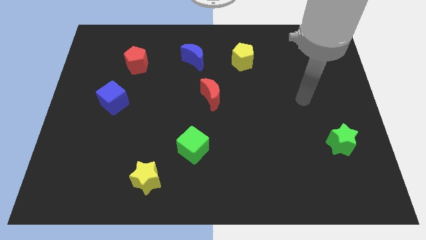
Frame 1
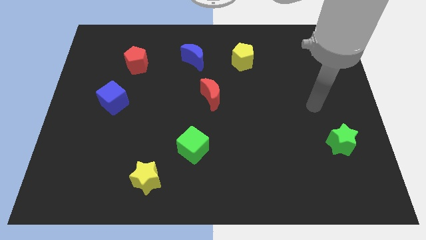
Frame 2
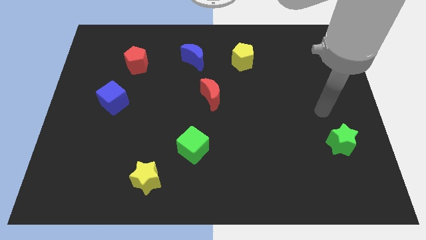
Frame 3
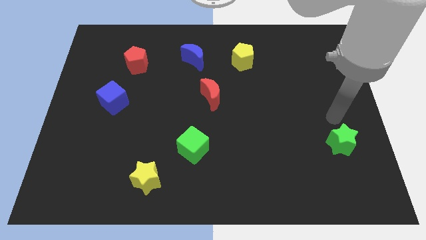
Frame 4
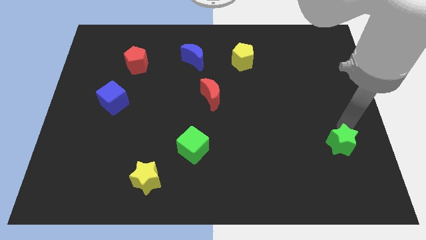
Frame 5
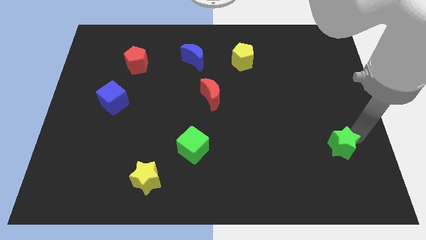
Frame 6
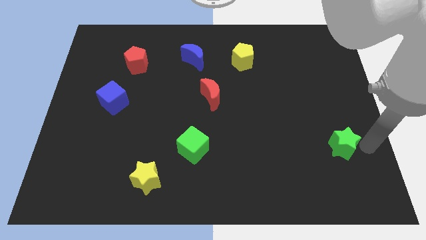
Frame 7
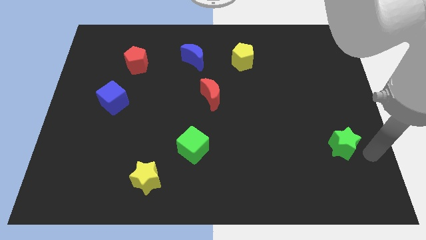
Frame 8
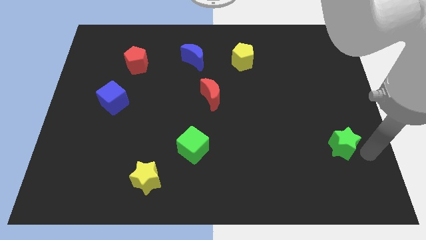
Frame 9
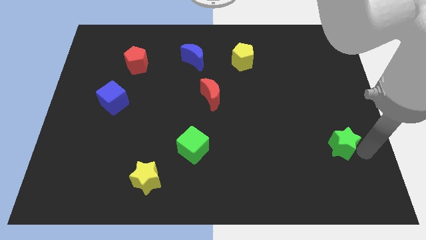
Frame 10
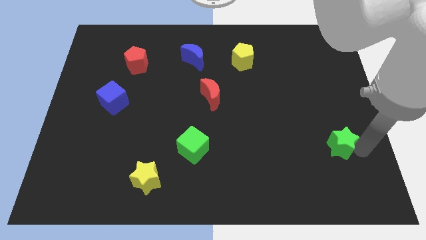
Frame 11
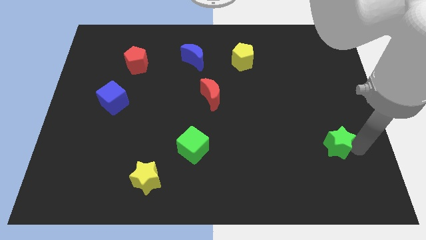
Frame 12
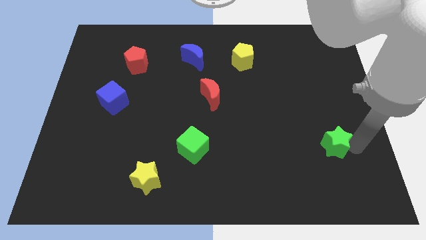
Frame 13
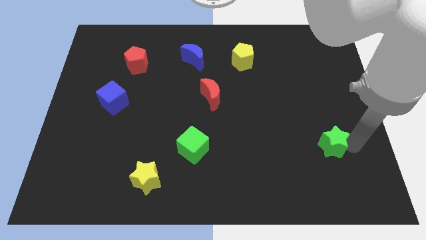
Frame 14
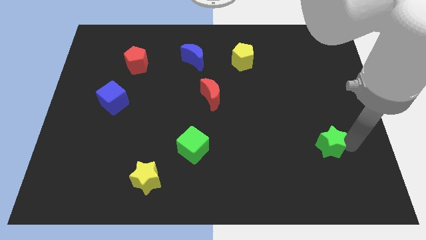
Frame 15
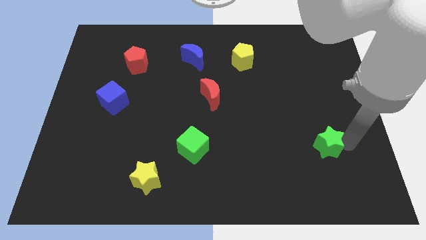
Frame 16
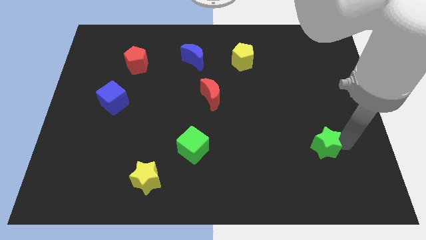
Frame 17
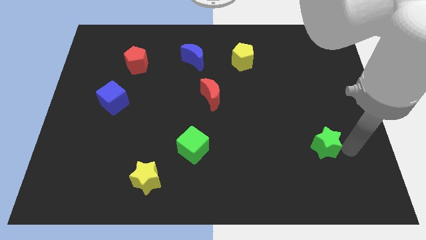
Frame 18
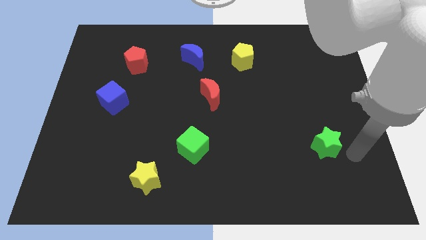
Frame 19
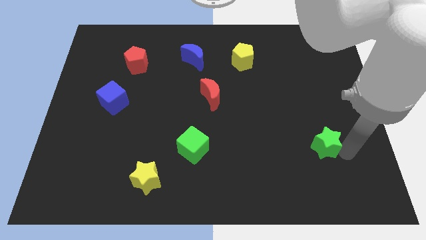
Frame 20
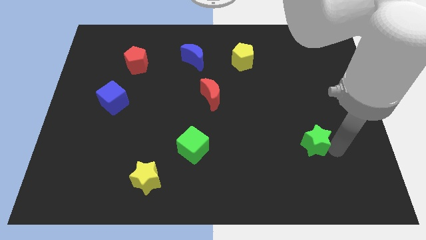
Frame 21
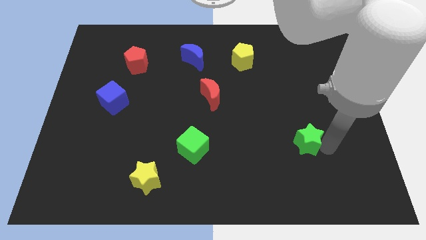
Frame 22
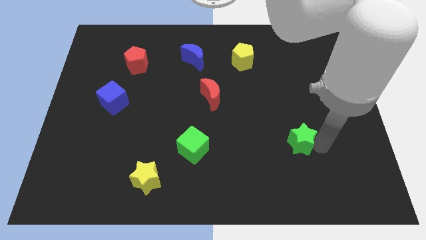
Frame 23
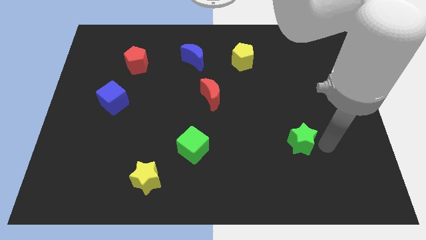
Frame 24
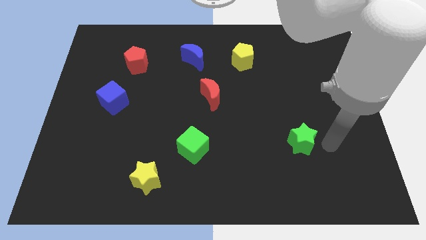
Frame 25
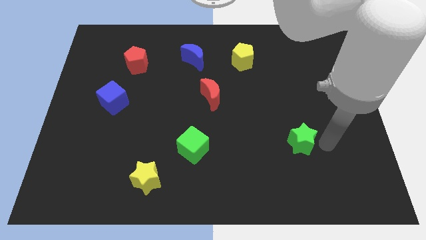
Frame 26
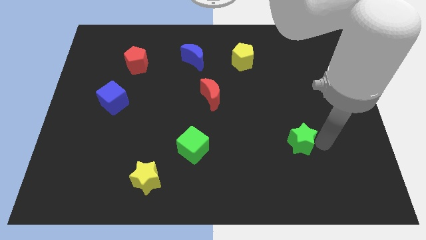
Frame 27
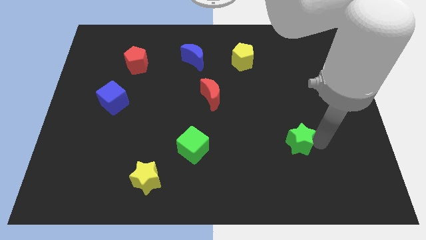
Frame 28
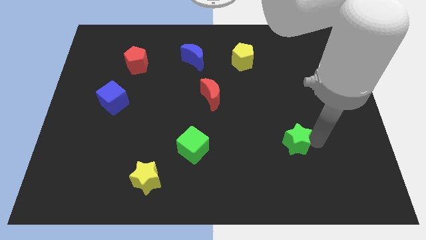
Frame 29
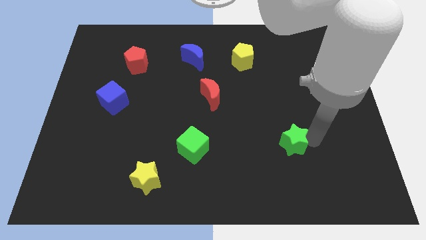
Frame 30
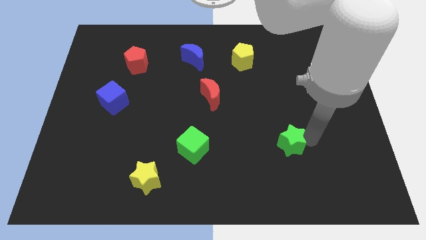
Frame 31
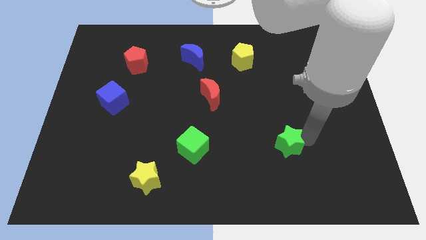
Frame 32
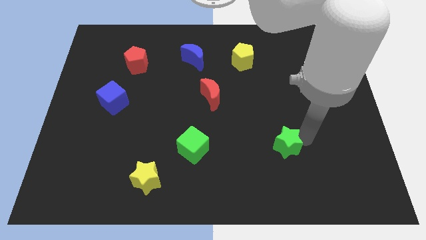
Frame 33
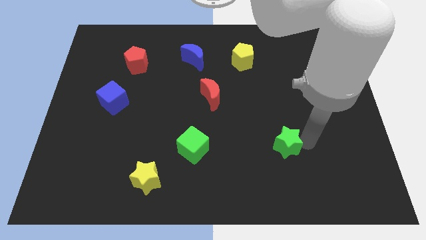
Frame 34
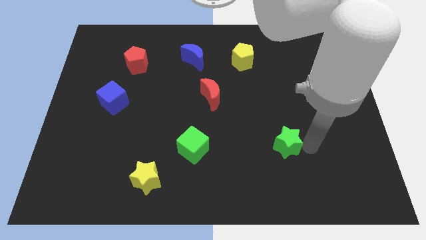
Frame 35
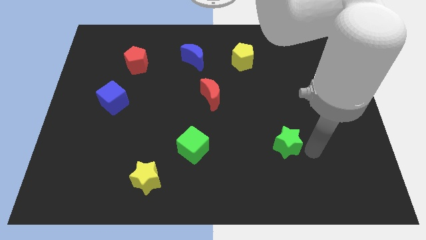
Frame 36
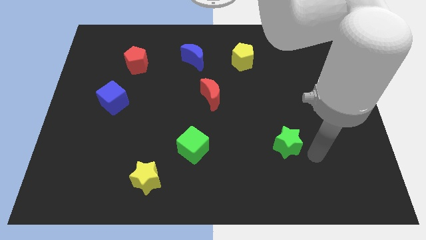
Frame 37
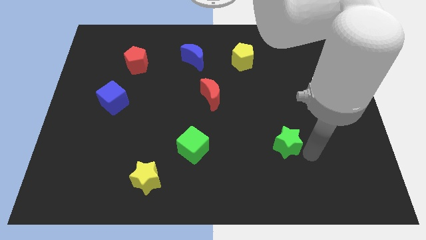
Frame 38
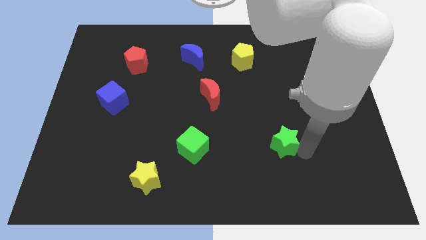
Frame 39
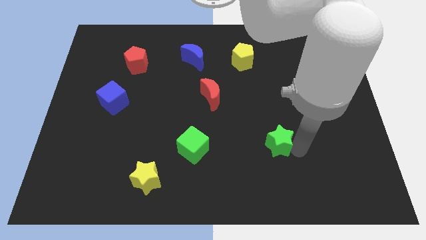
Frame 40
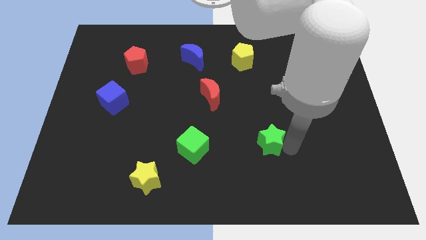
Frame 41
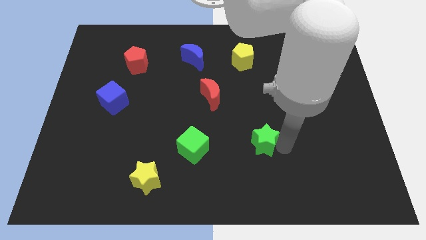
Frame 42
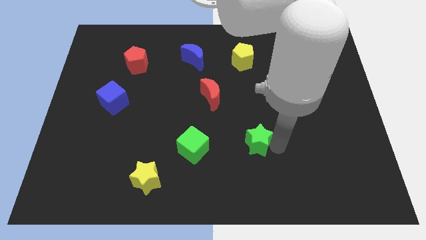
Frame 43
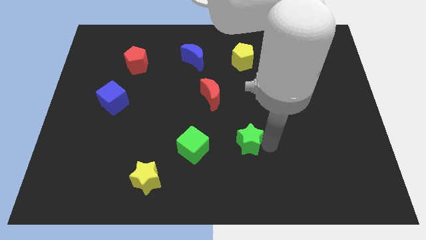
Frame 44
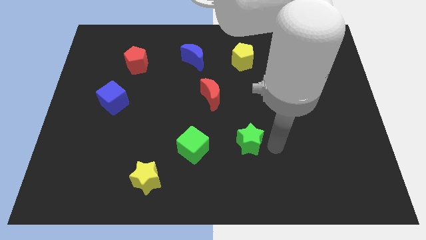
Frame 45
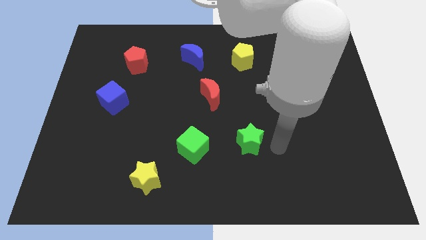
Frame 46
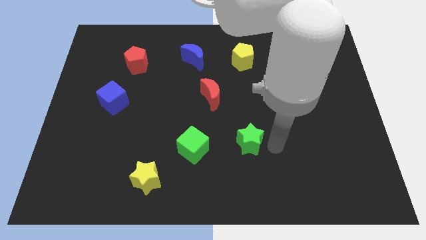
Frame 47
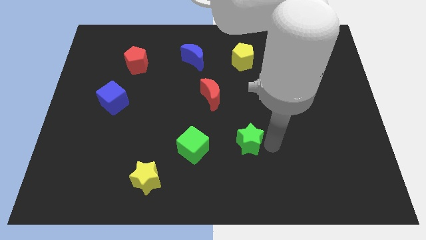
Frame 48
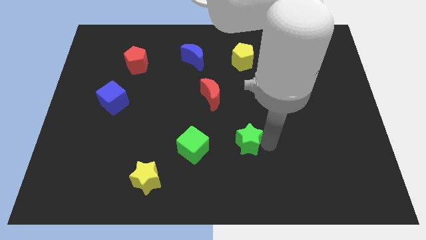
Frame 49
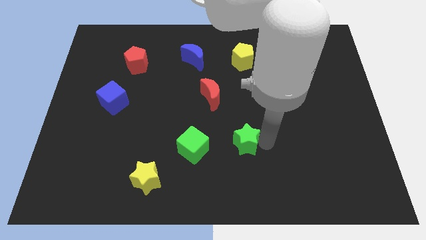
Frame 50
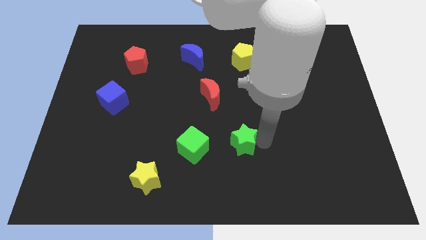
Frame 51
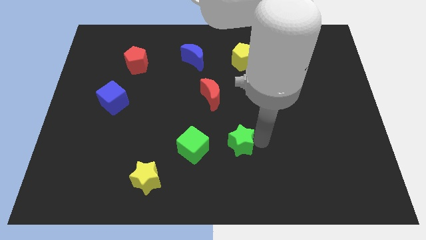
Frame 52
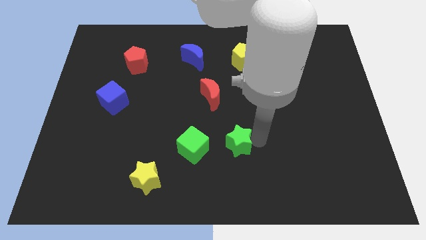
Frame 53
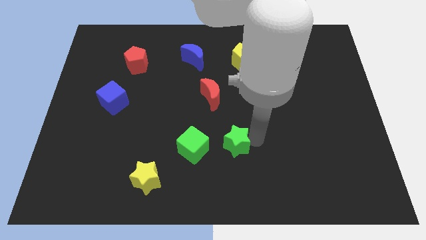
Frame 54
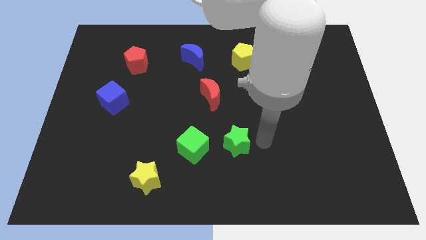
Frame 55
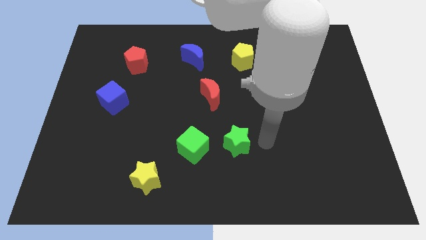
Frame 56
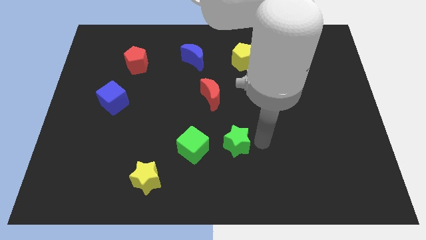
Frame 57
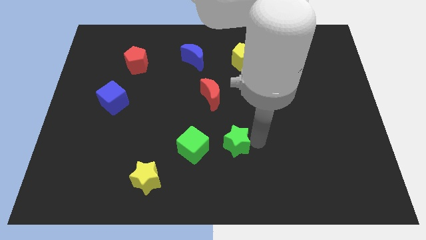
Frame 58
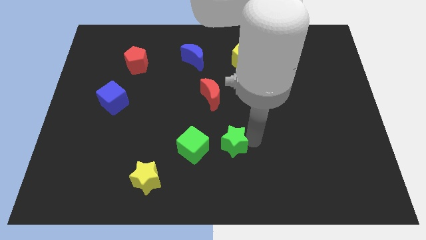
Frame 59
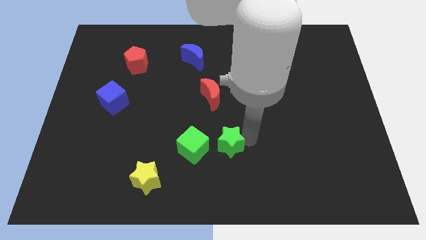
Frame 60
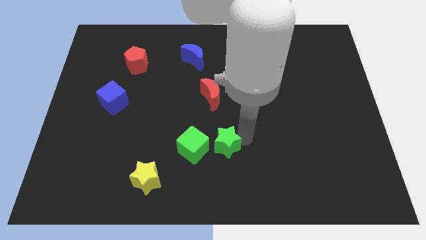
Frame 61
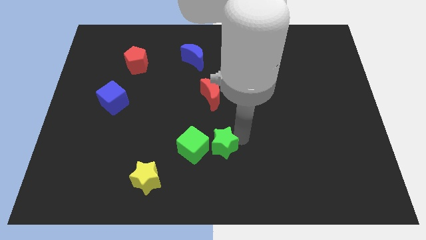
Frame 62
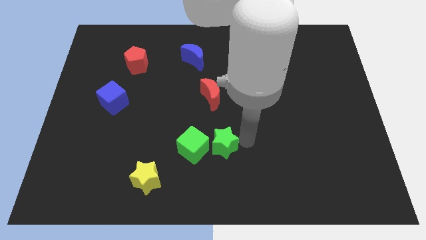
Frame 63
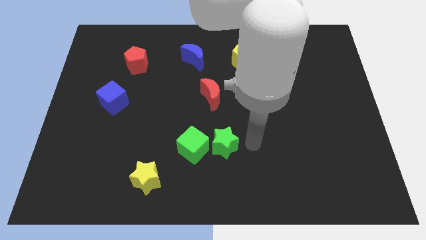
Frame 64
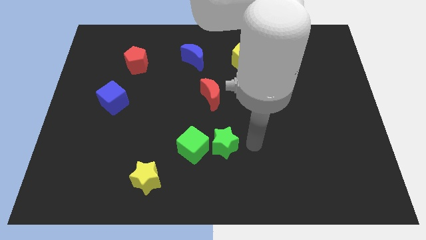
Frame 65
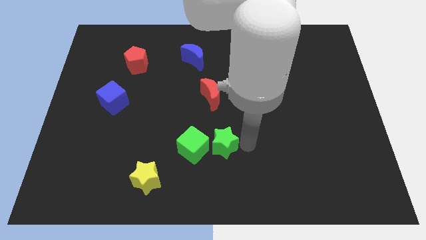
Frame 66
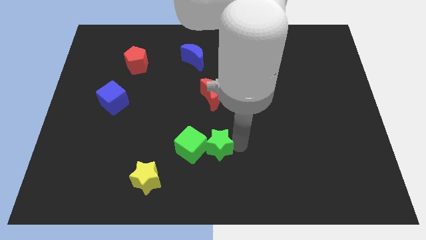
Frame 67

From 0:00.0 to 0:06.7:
slide the green star next to the green cube

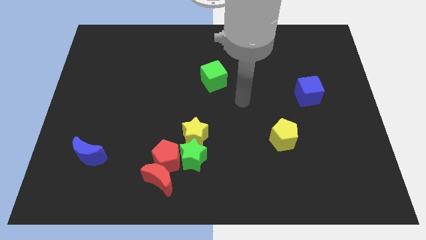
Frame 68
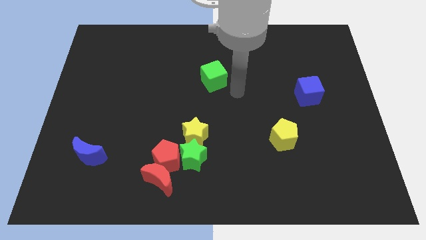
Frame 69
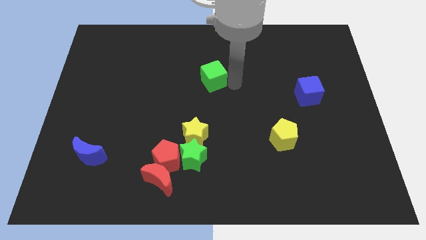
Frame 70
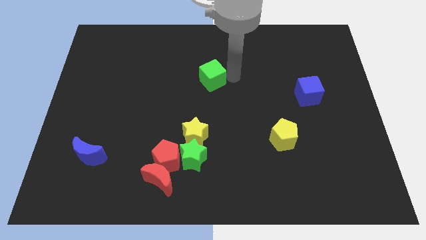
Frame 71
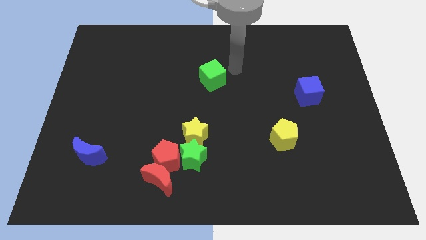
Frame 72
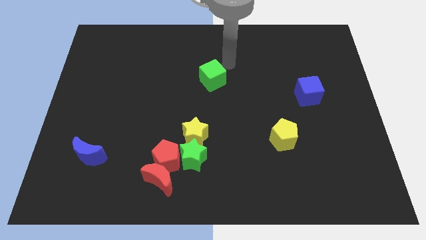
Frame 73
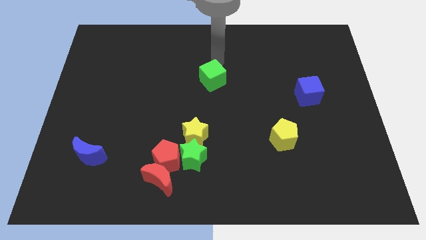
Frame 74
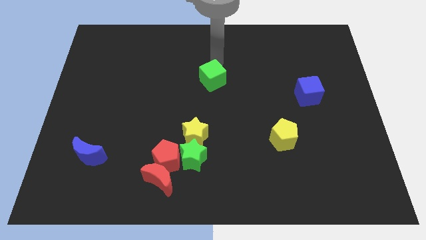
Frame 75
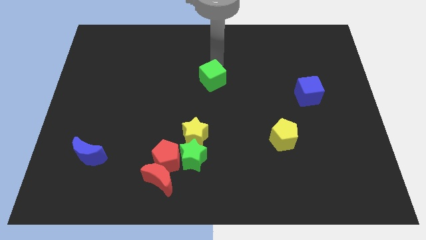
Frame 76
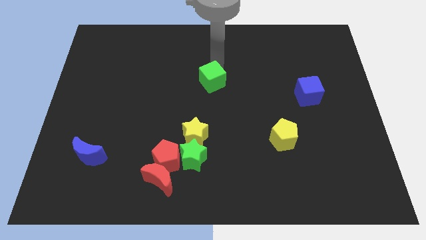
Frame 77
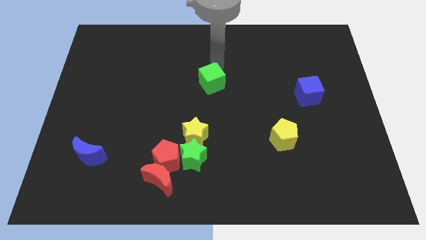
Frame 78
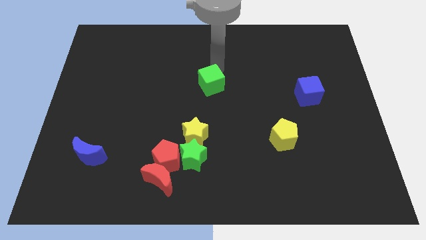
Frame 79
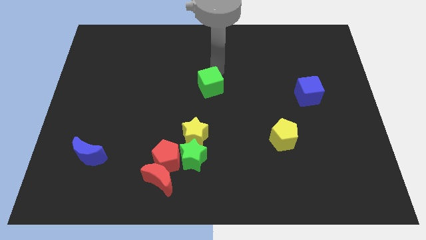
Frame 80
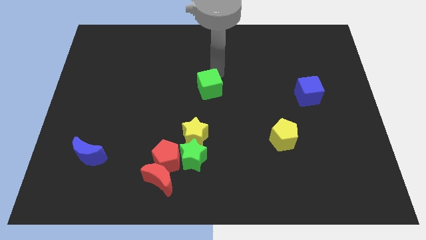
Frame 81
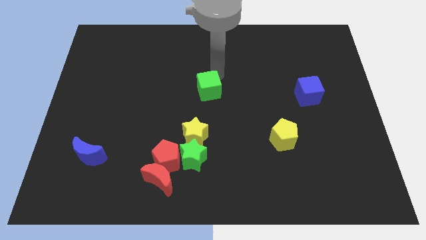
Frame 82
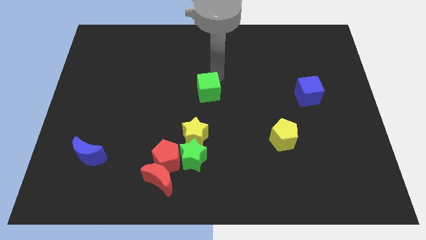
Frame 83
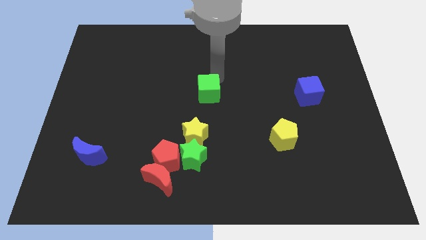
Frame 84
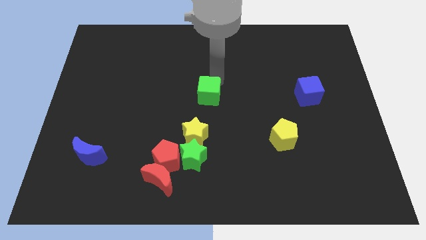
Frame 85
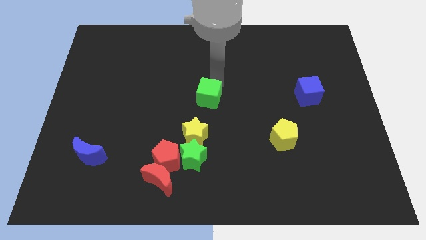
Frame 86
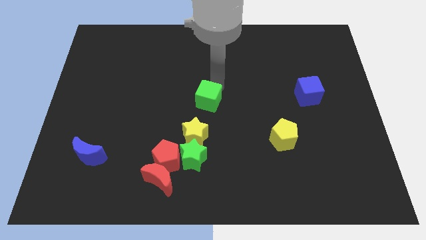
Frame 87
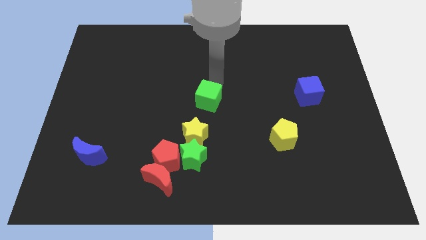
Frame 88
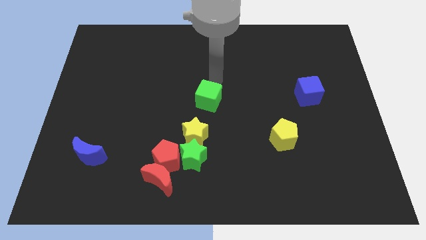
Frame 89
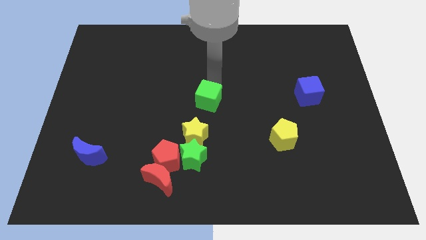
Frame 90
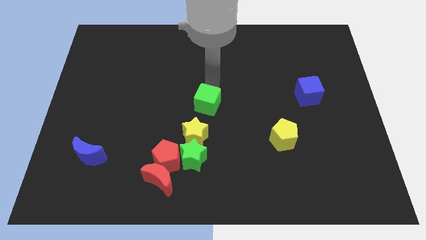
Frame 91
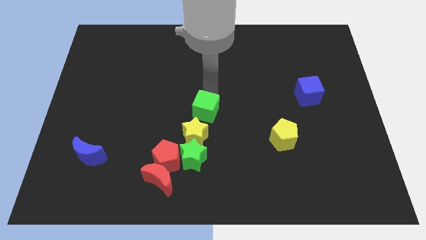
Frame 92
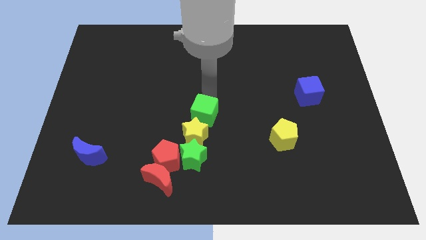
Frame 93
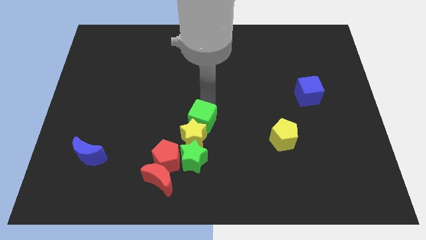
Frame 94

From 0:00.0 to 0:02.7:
push the green cube towards the yellow star
